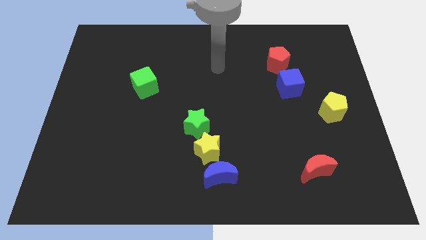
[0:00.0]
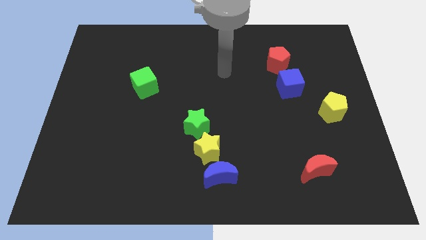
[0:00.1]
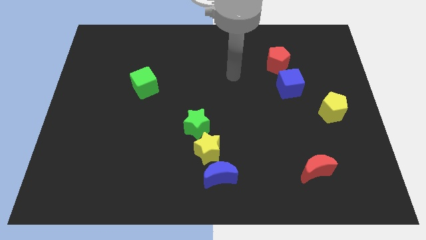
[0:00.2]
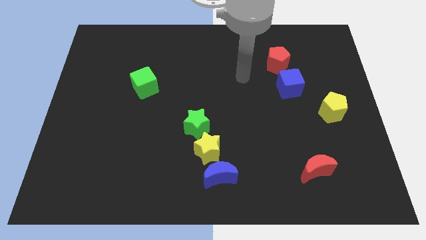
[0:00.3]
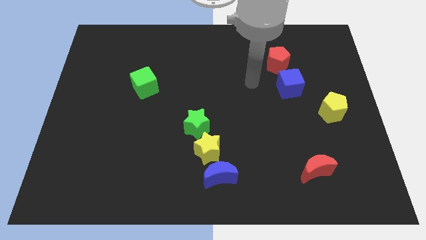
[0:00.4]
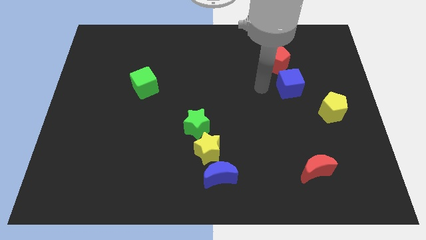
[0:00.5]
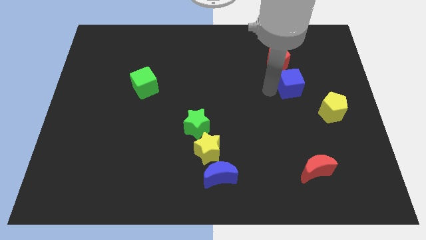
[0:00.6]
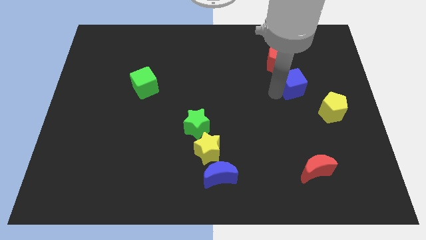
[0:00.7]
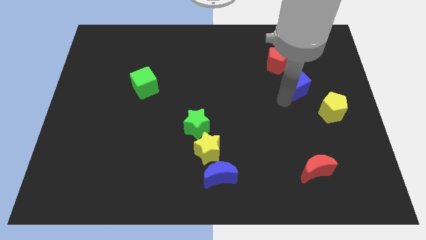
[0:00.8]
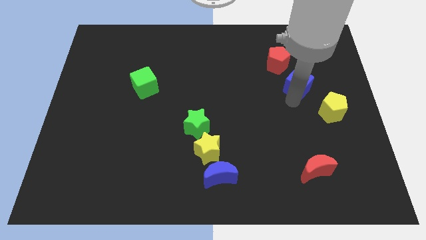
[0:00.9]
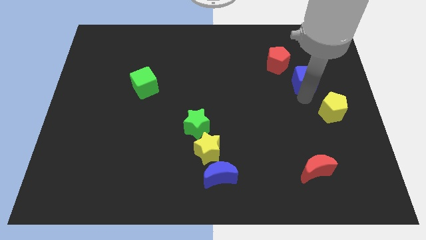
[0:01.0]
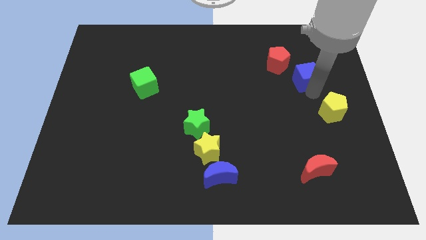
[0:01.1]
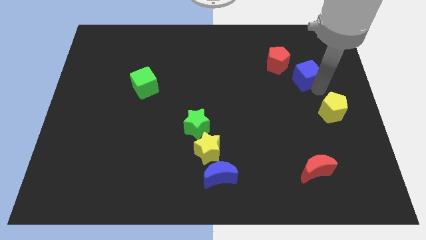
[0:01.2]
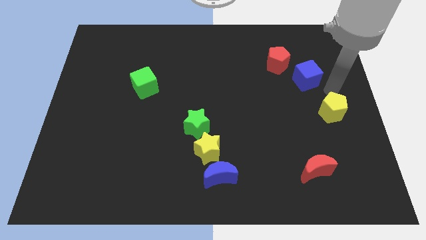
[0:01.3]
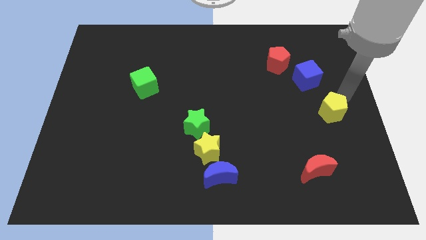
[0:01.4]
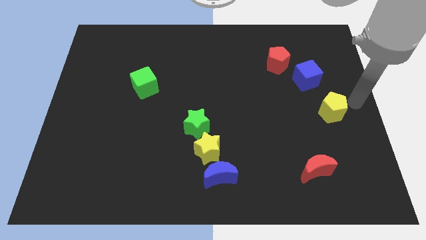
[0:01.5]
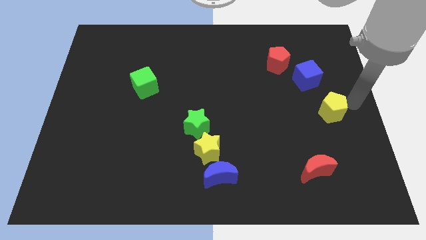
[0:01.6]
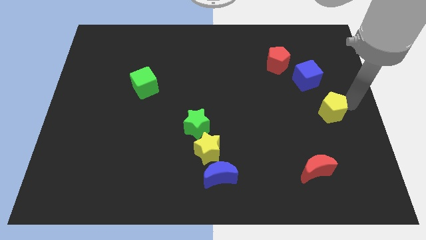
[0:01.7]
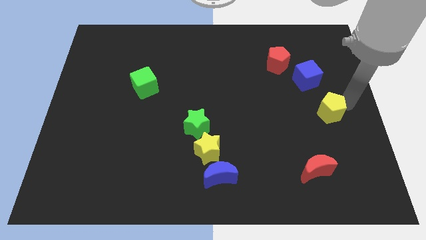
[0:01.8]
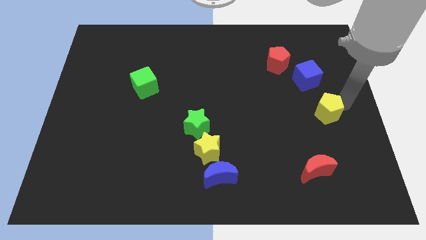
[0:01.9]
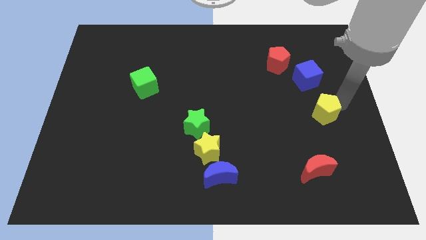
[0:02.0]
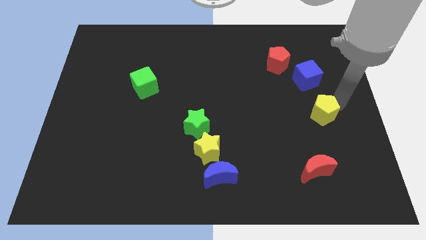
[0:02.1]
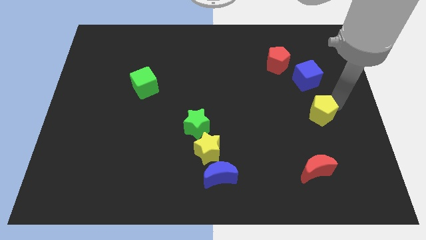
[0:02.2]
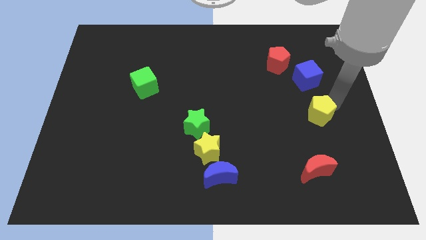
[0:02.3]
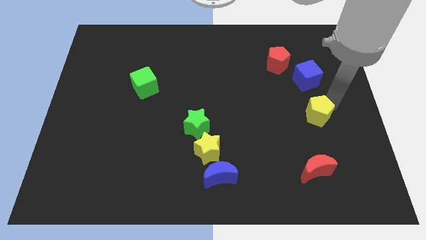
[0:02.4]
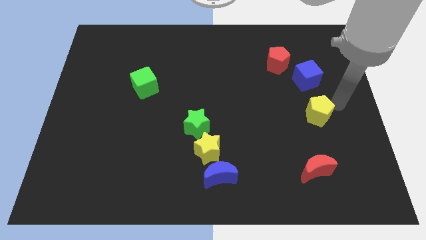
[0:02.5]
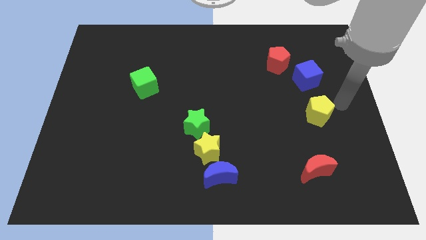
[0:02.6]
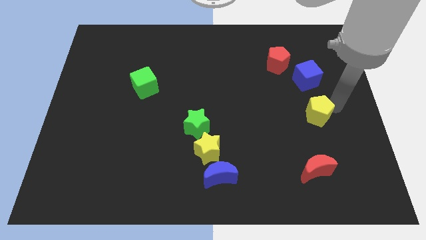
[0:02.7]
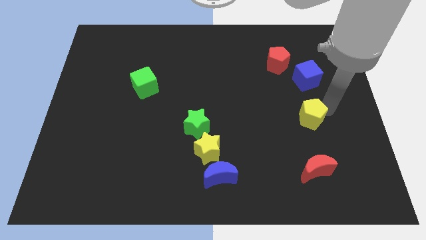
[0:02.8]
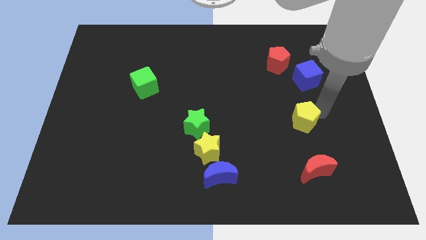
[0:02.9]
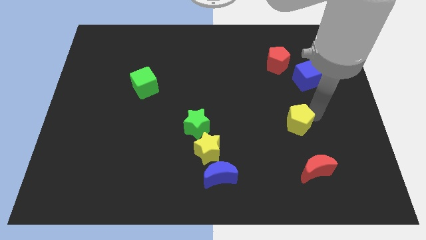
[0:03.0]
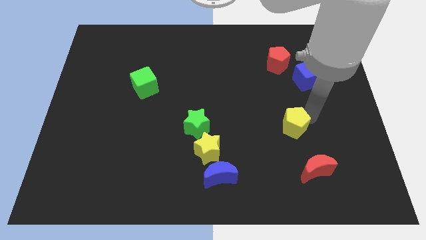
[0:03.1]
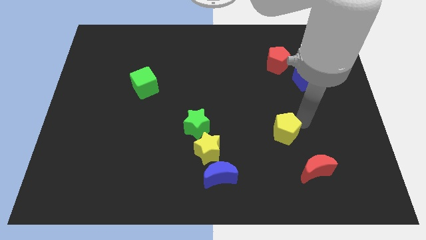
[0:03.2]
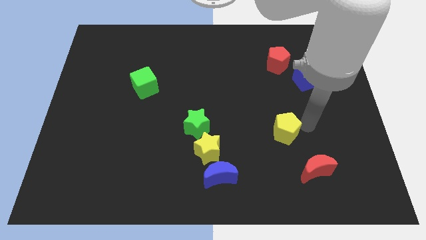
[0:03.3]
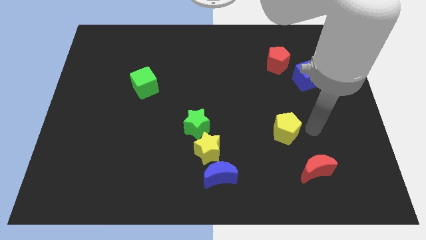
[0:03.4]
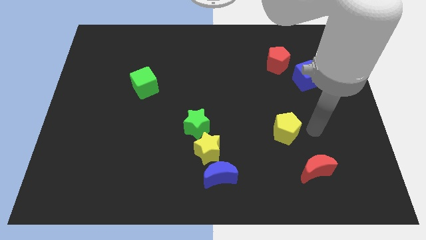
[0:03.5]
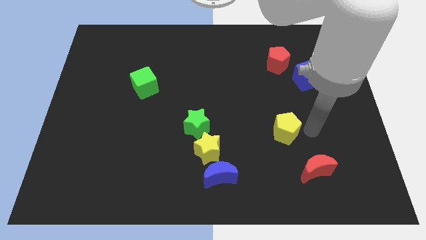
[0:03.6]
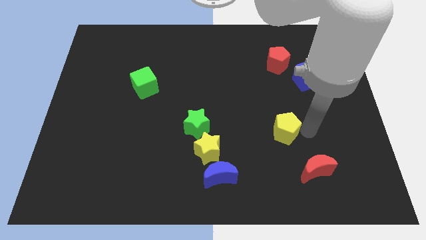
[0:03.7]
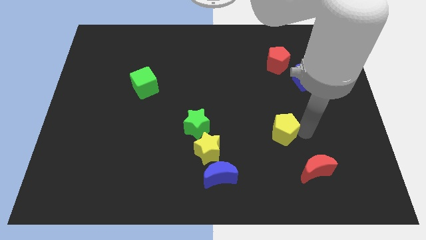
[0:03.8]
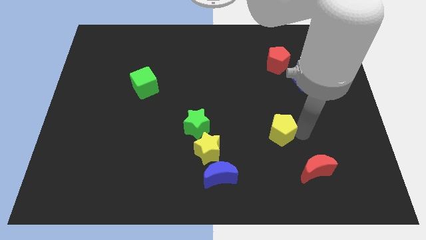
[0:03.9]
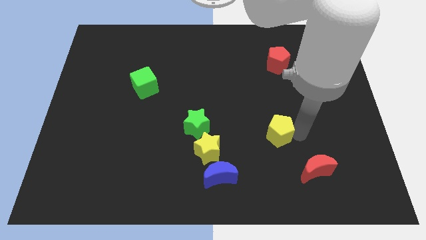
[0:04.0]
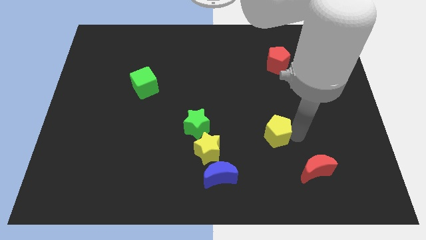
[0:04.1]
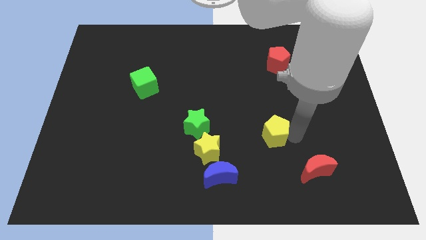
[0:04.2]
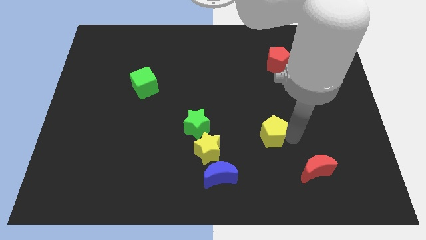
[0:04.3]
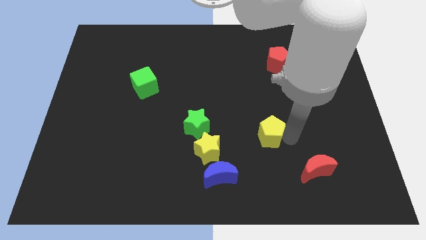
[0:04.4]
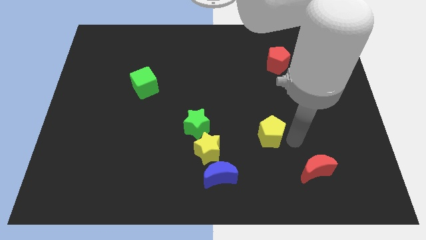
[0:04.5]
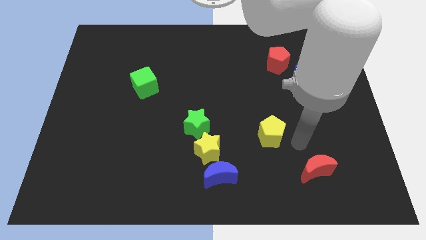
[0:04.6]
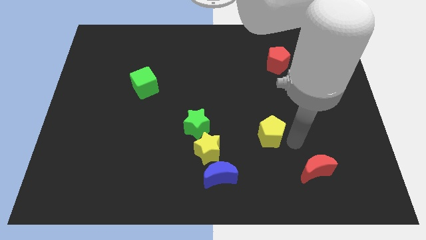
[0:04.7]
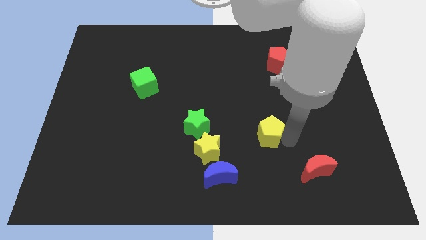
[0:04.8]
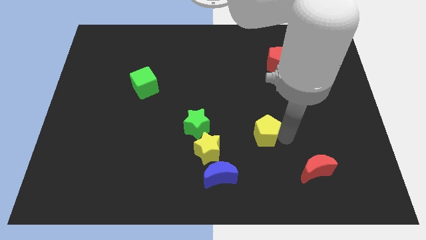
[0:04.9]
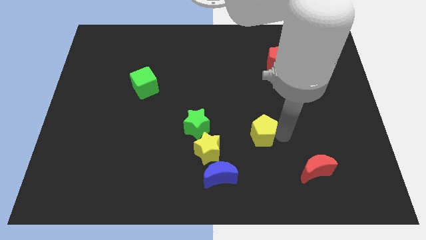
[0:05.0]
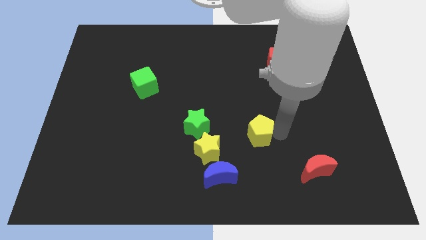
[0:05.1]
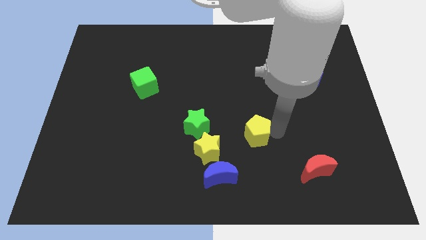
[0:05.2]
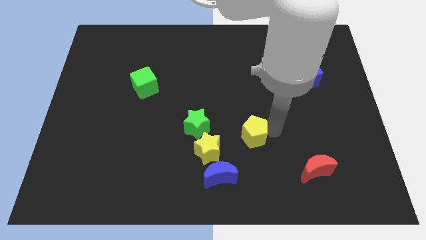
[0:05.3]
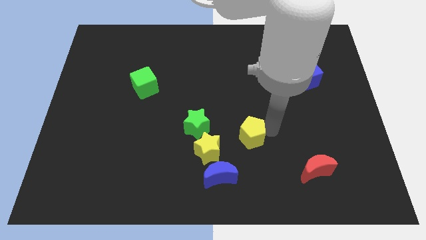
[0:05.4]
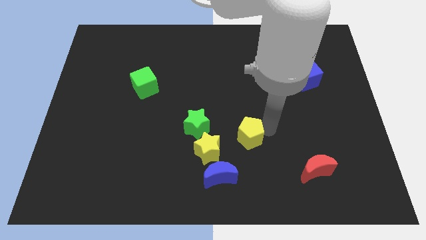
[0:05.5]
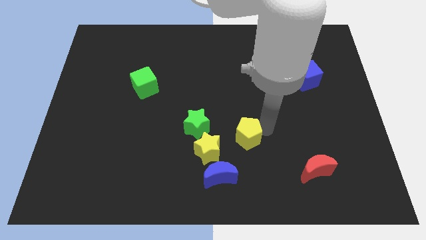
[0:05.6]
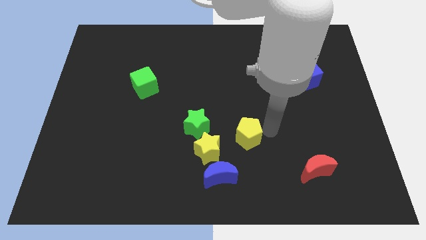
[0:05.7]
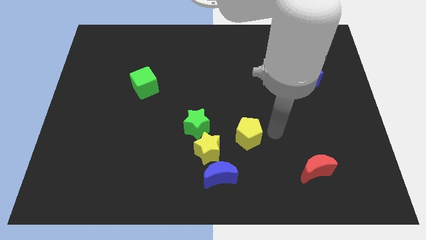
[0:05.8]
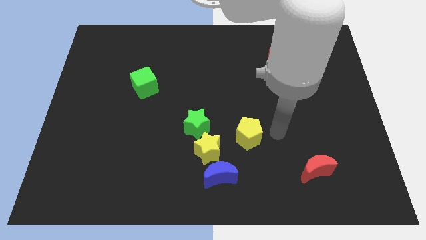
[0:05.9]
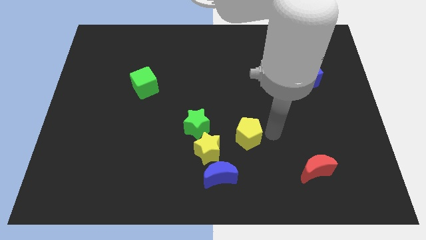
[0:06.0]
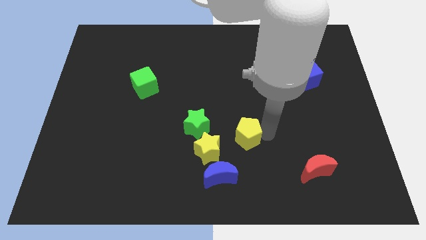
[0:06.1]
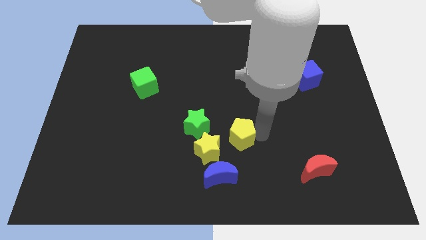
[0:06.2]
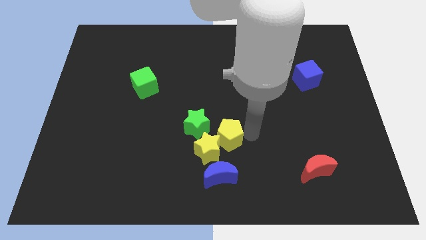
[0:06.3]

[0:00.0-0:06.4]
slide the yellow pentagon towards the yellow star

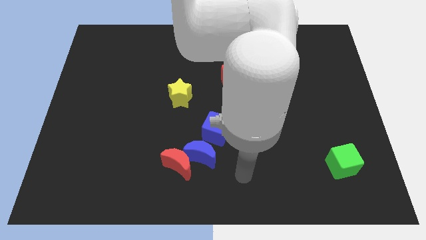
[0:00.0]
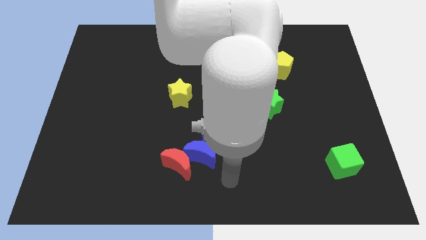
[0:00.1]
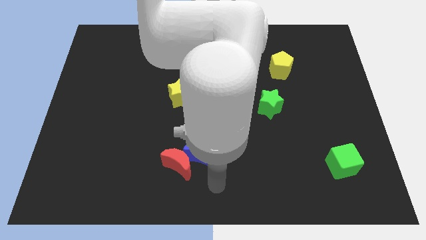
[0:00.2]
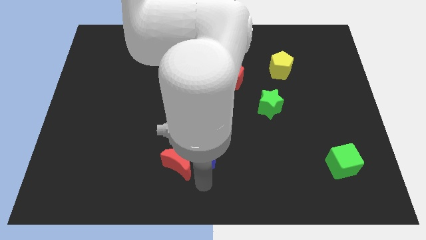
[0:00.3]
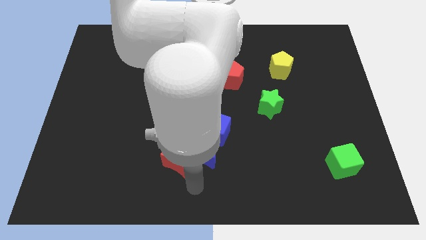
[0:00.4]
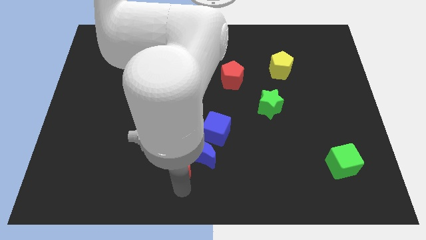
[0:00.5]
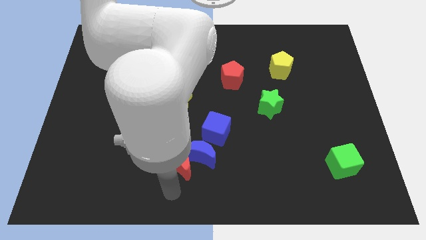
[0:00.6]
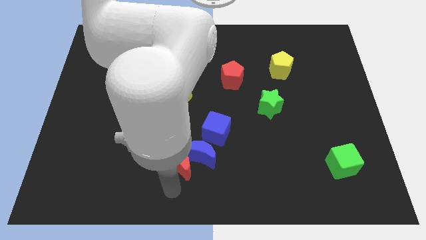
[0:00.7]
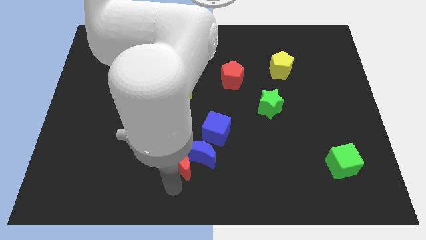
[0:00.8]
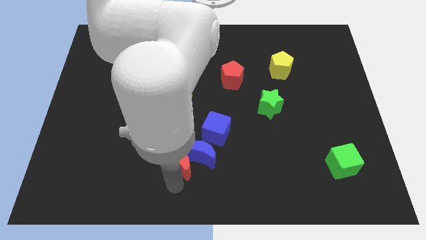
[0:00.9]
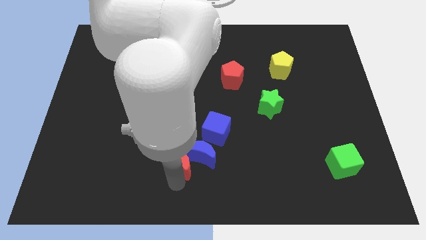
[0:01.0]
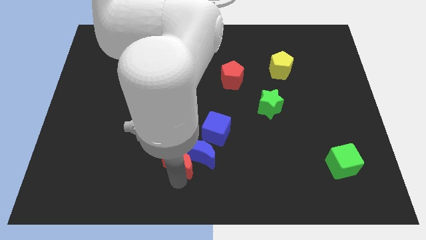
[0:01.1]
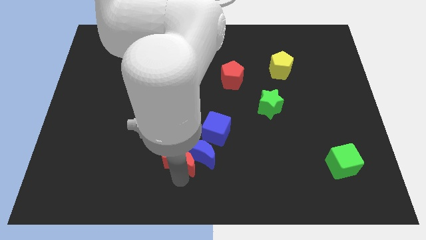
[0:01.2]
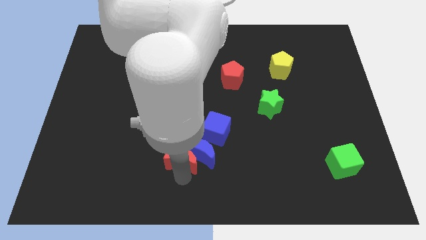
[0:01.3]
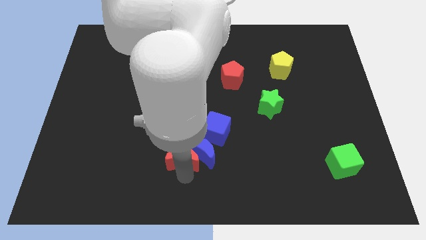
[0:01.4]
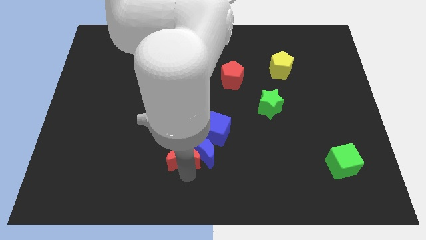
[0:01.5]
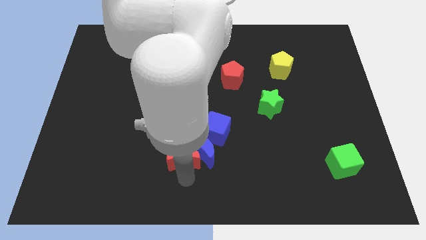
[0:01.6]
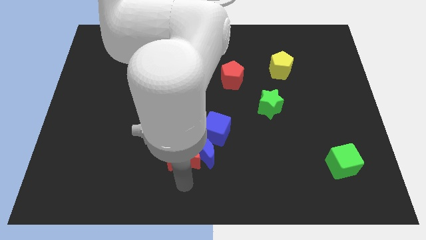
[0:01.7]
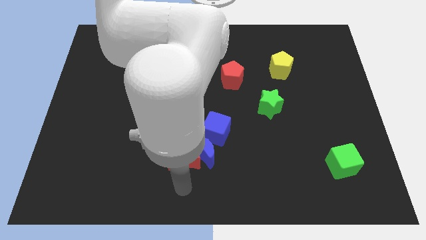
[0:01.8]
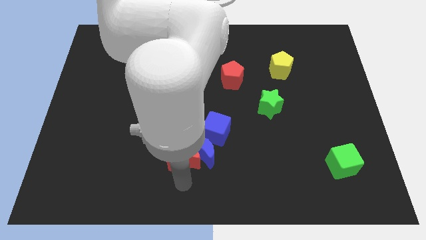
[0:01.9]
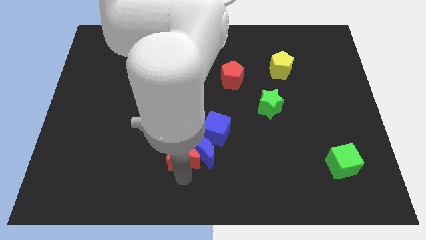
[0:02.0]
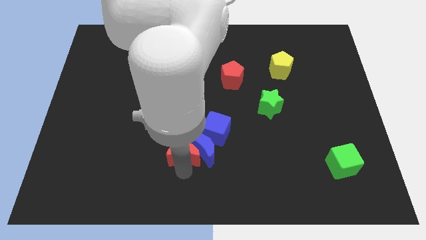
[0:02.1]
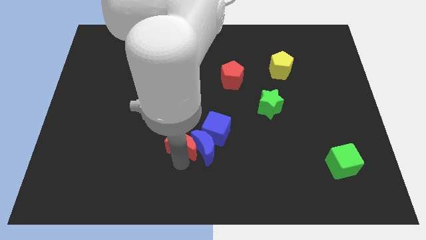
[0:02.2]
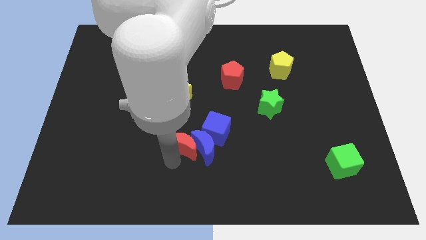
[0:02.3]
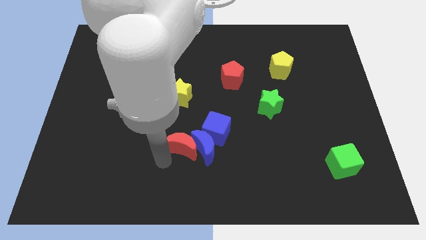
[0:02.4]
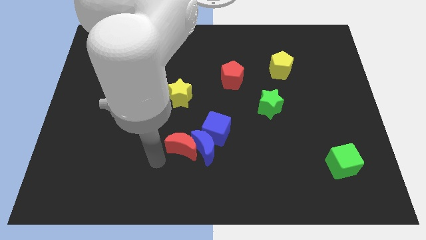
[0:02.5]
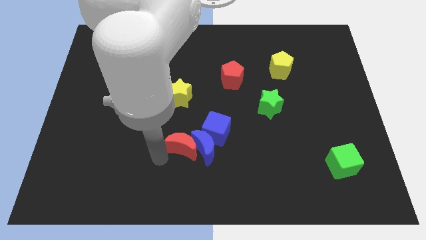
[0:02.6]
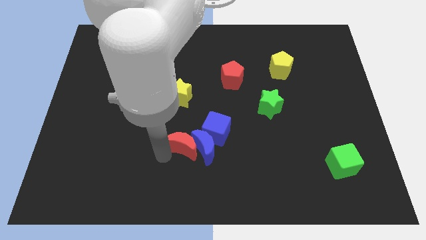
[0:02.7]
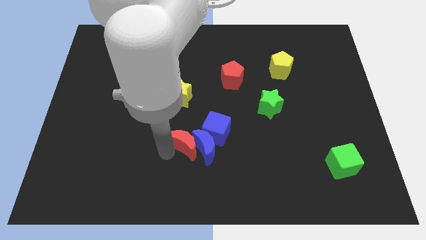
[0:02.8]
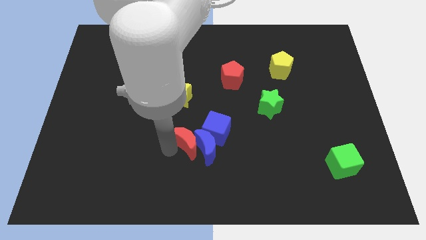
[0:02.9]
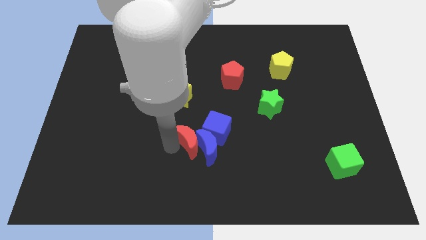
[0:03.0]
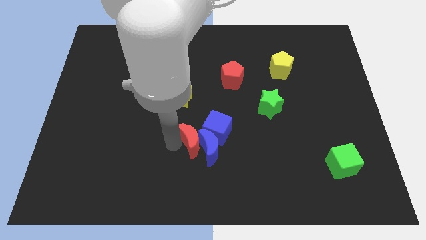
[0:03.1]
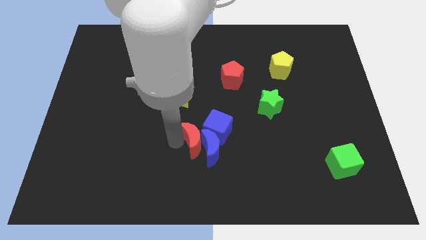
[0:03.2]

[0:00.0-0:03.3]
push the red moon to the blue cube
